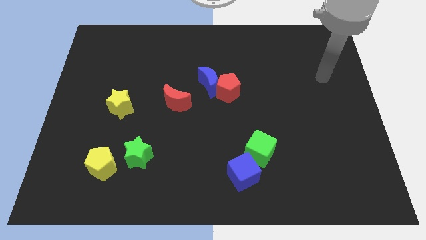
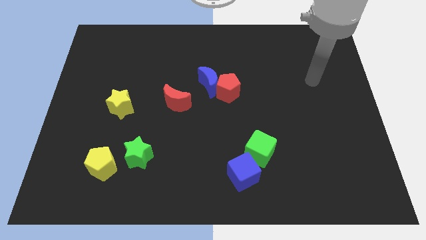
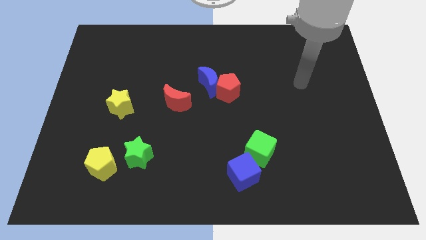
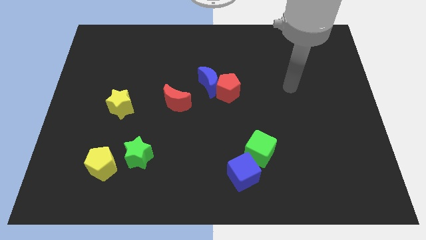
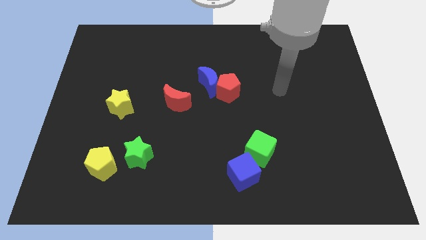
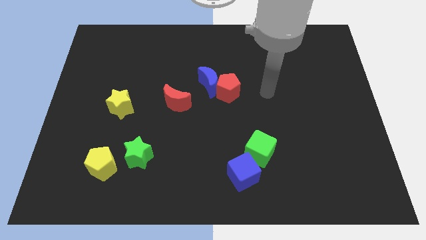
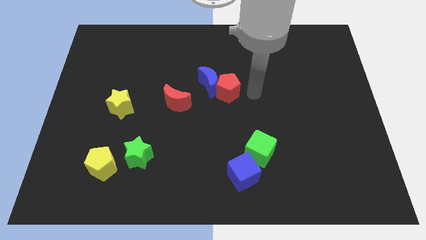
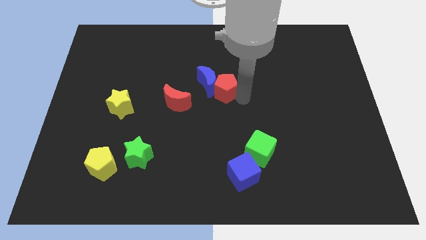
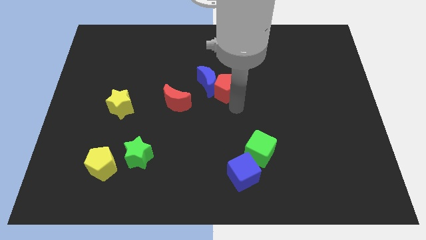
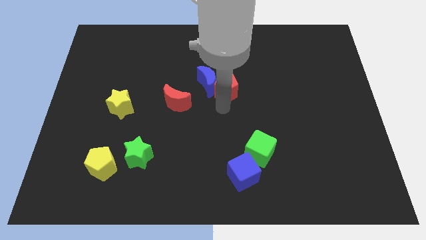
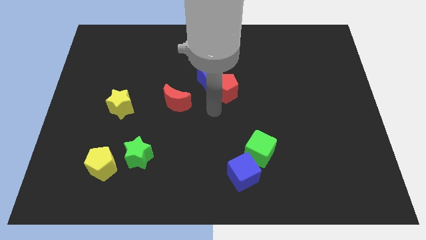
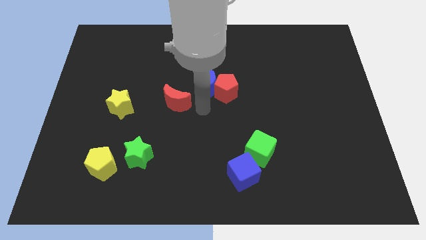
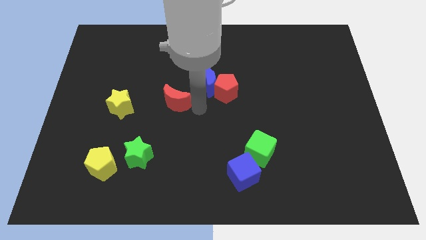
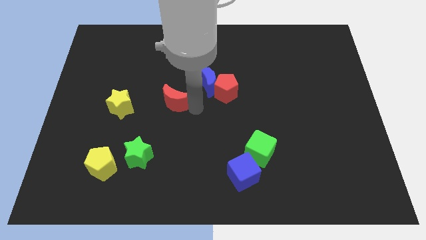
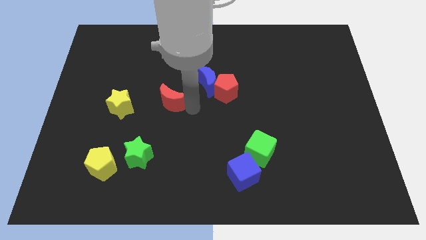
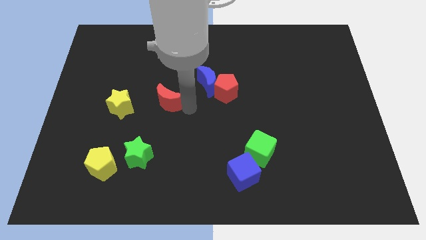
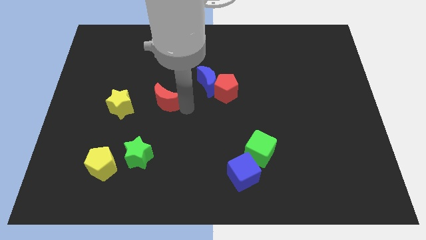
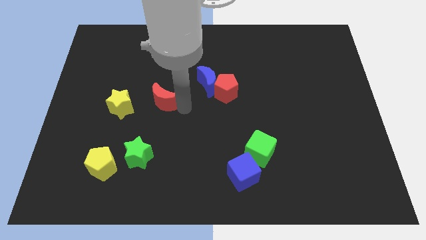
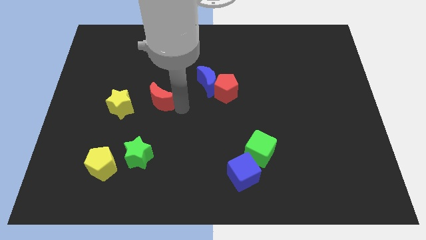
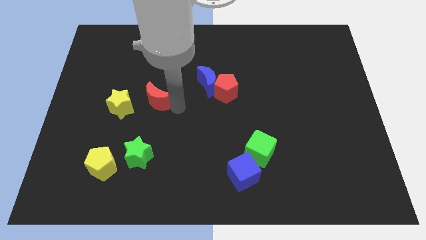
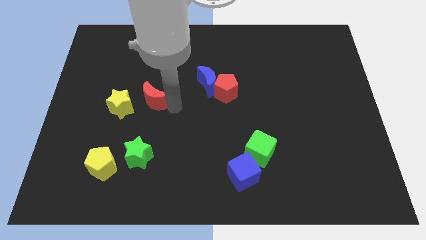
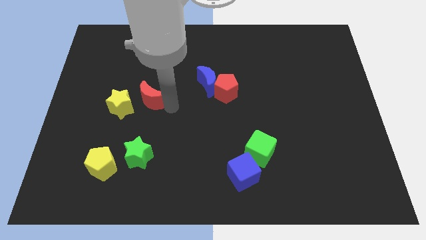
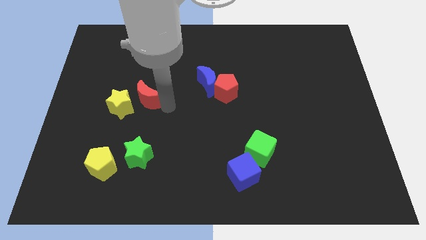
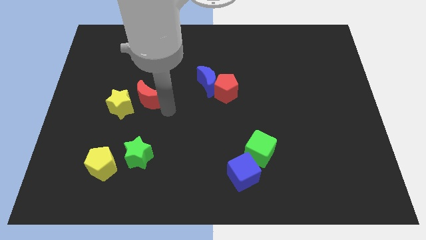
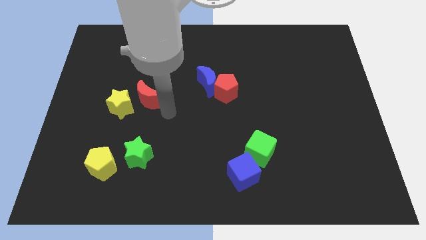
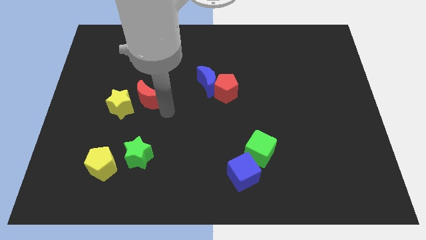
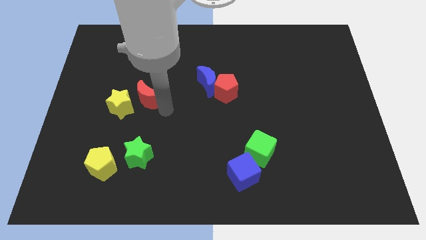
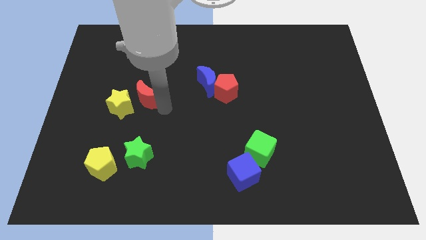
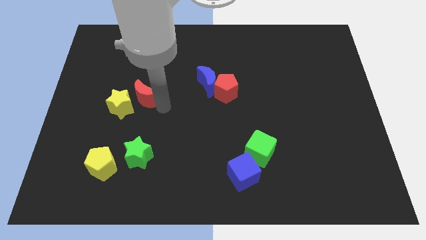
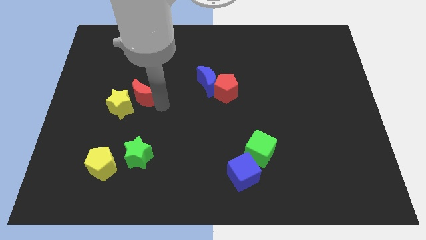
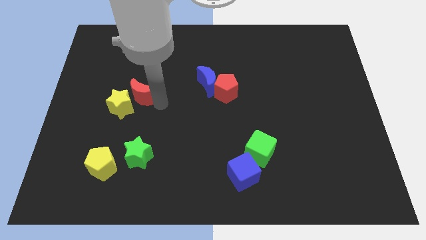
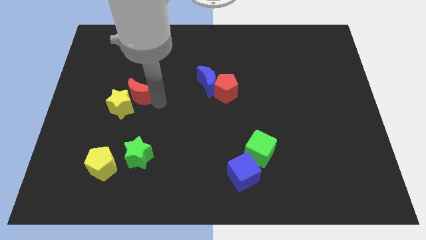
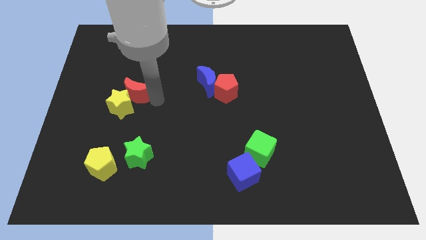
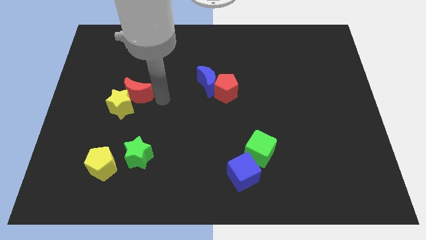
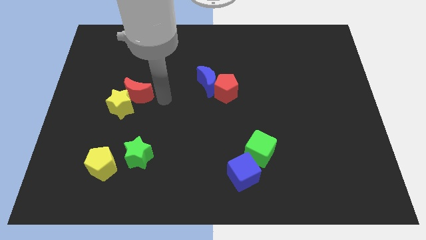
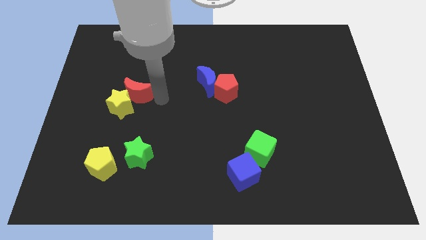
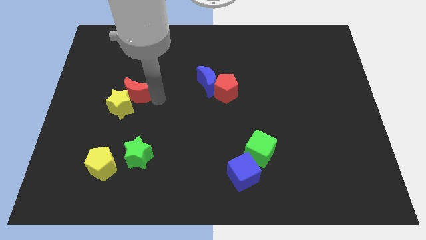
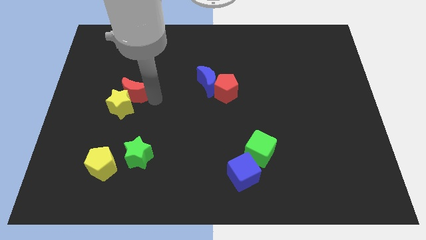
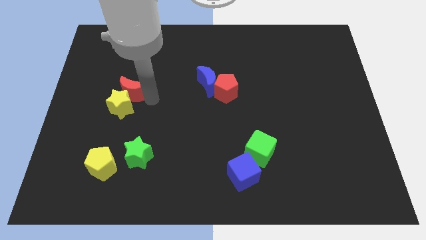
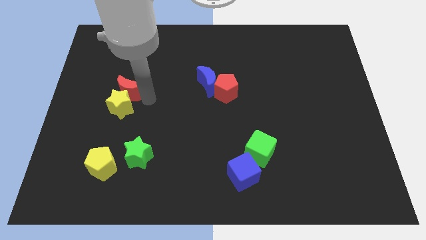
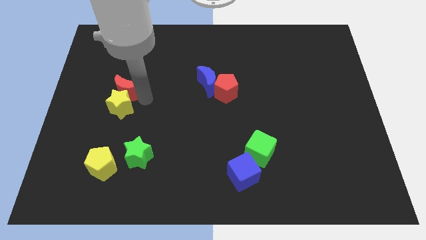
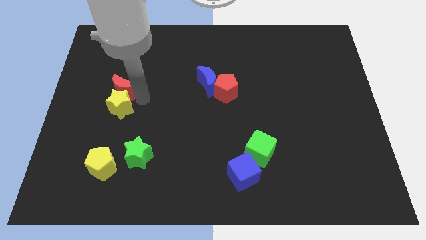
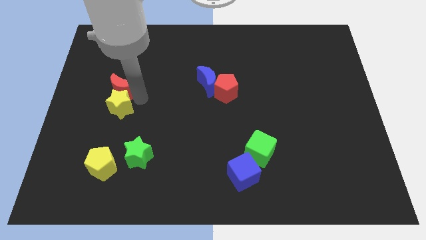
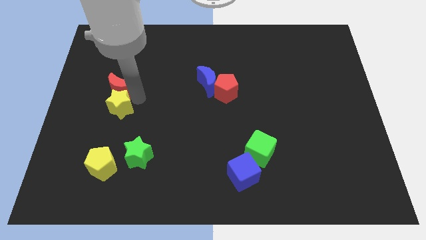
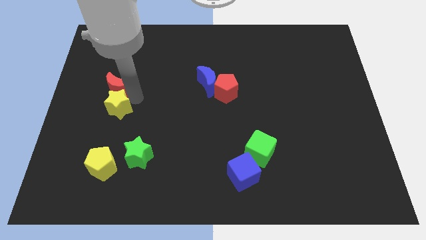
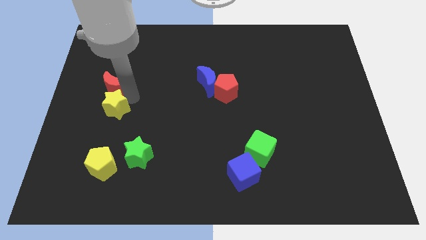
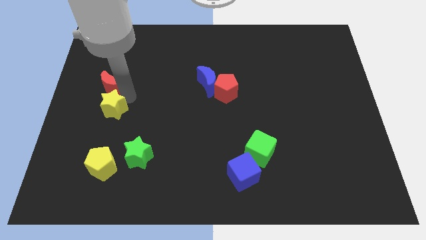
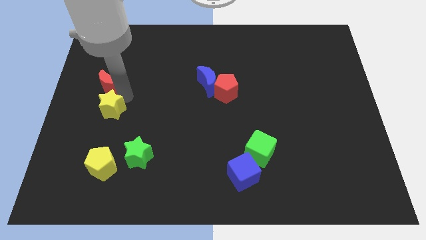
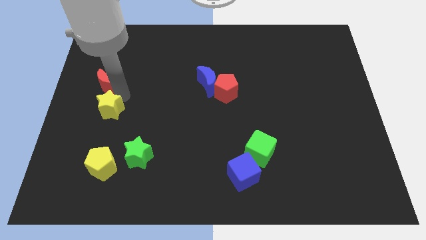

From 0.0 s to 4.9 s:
put the red moon to the left side

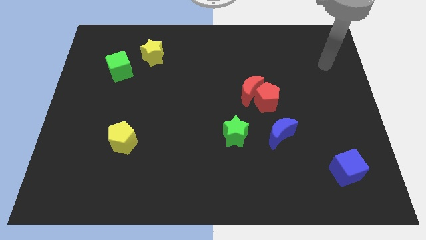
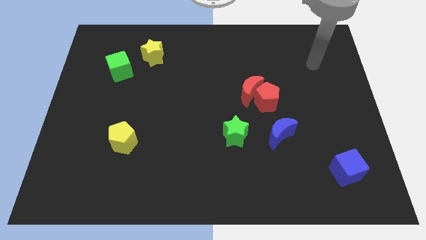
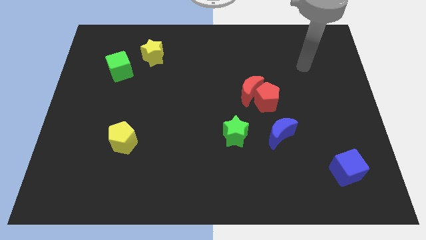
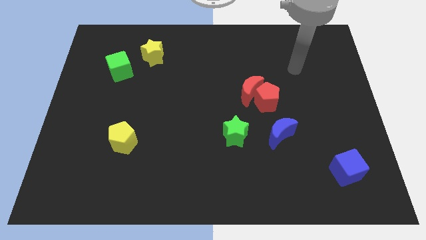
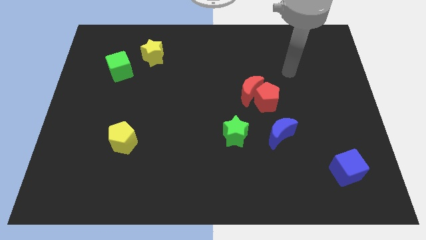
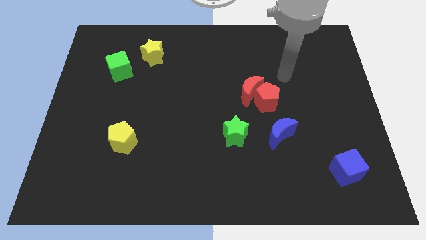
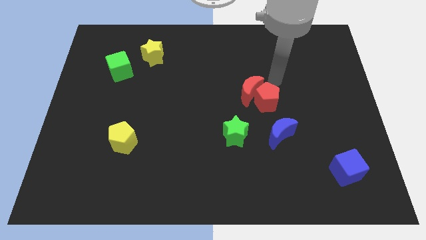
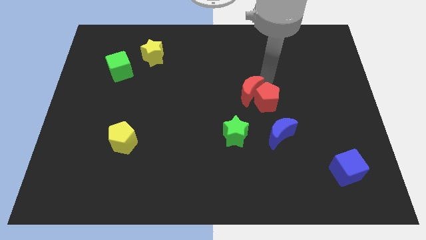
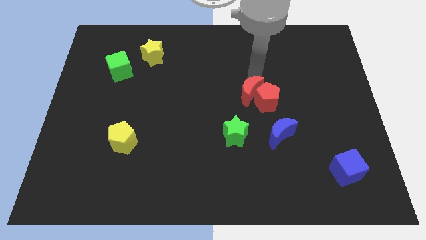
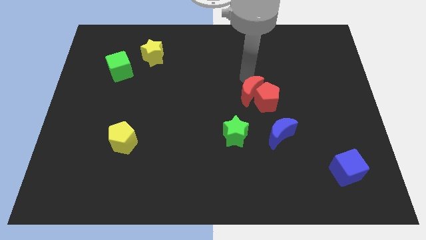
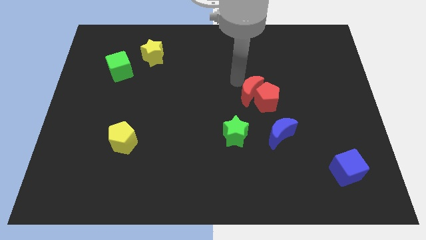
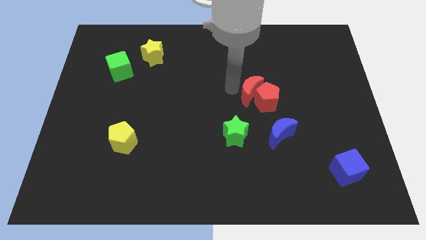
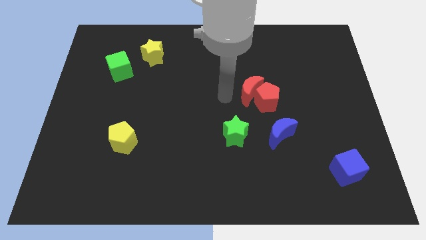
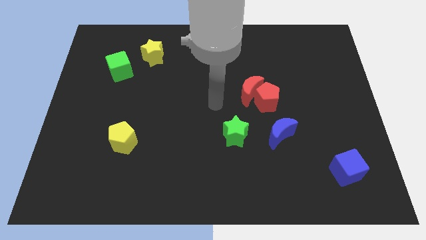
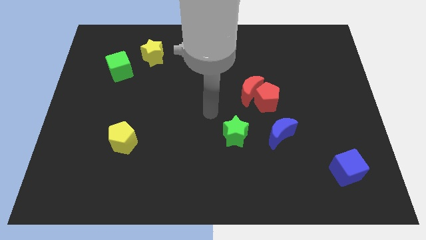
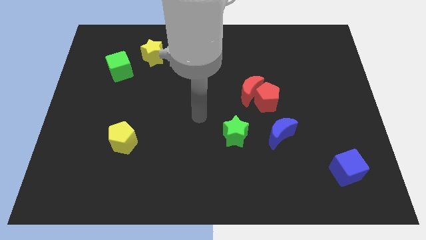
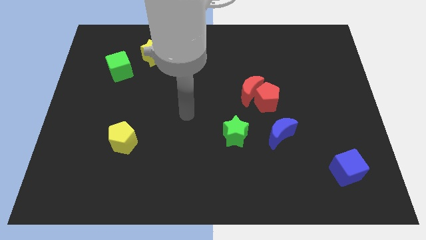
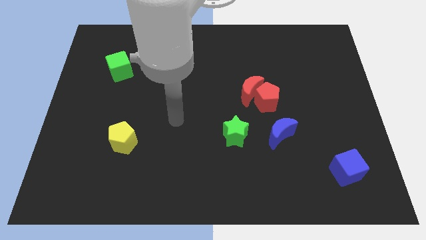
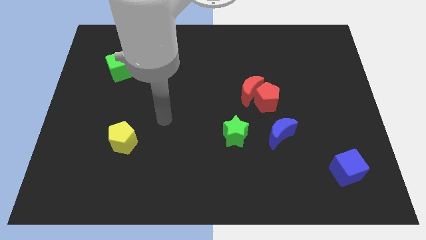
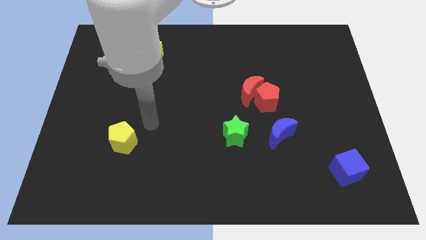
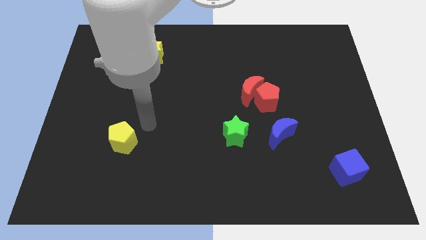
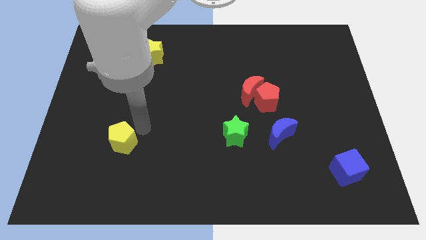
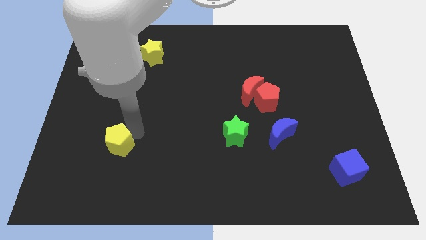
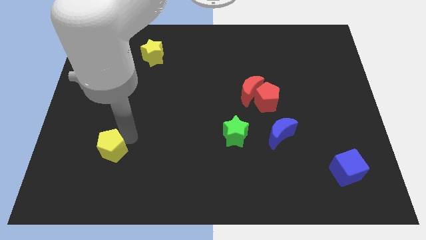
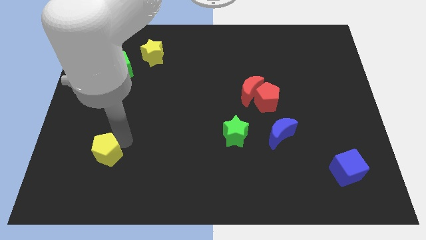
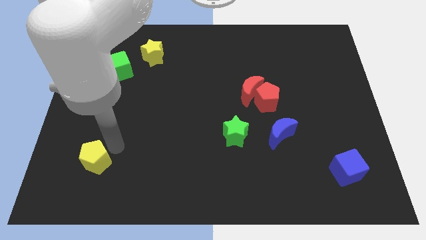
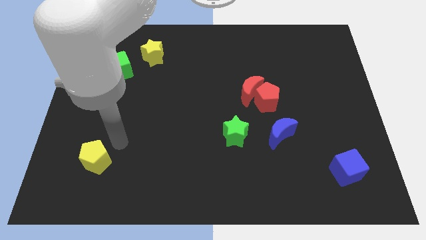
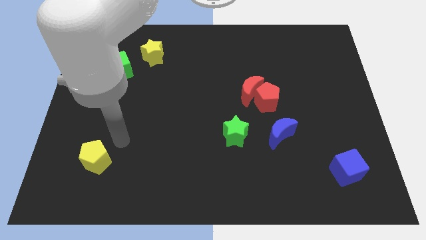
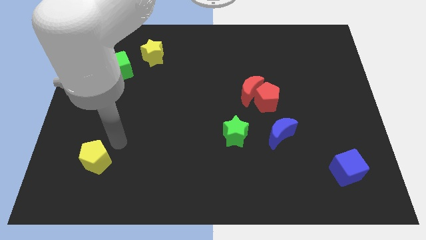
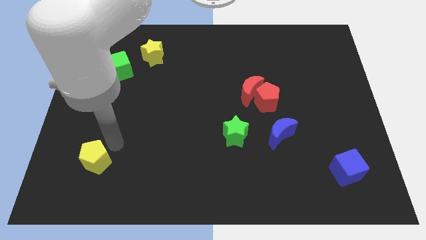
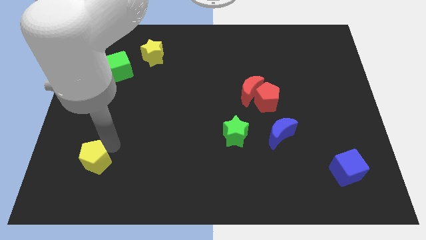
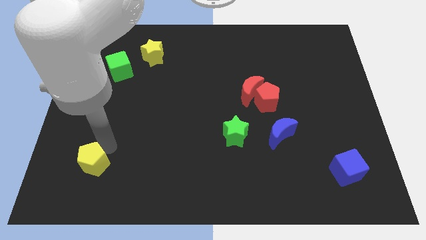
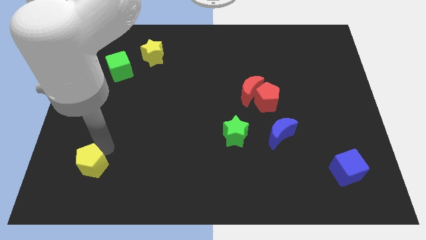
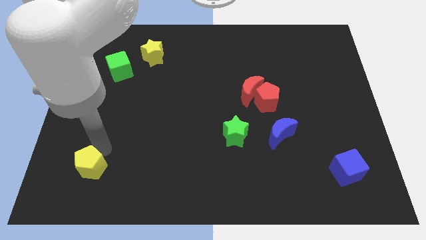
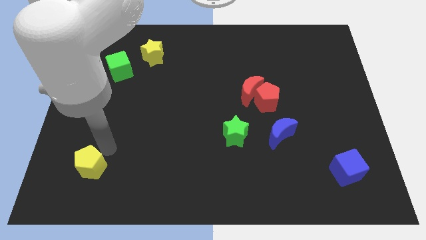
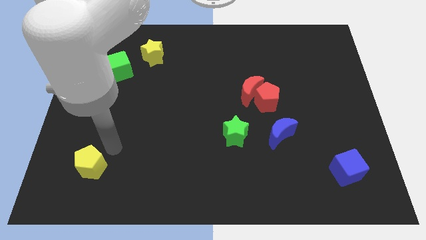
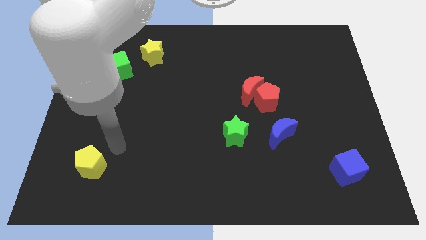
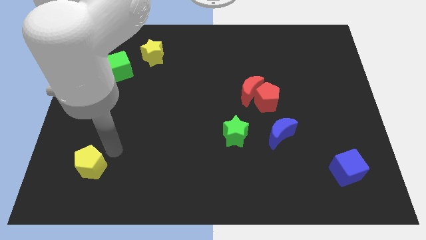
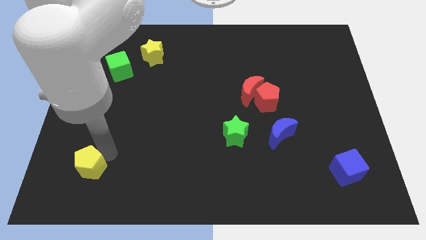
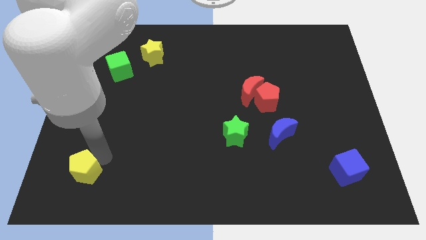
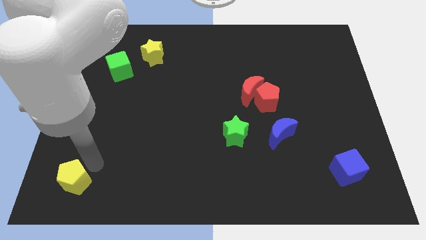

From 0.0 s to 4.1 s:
move the yellow pentagon to the bottom left corner
